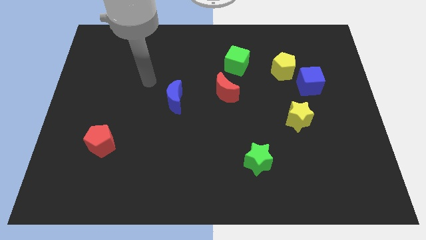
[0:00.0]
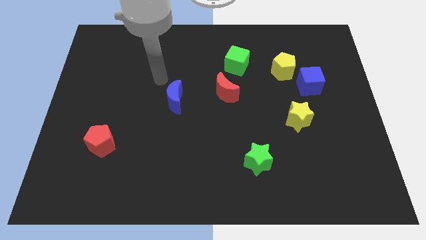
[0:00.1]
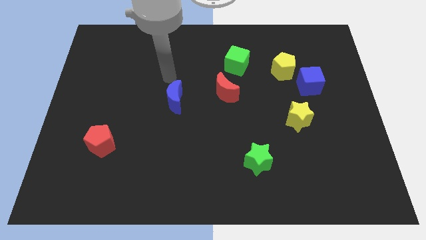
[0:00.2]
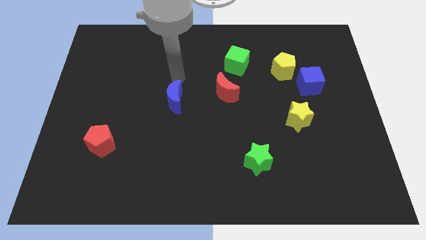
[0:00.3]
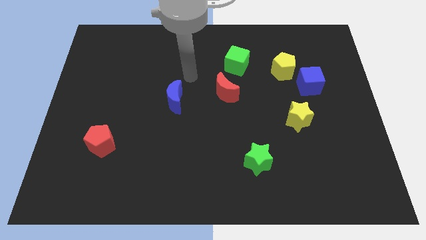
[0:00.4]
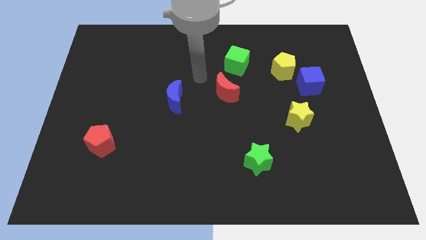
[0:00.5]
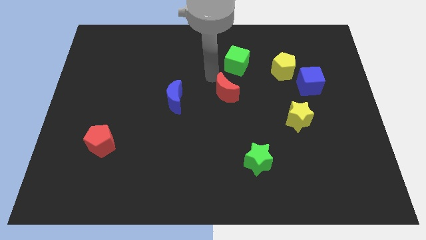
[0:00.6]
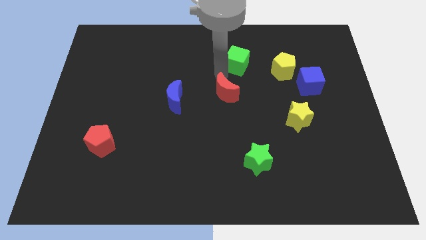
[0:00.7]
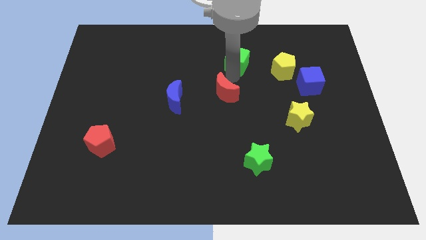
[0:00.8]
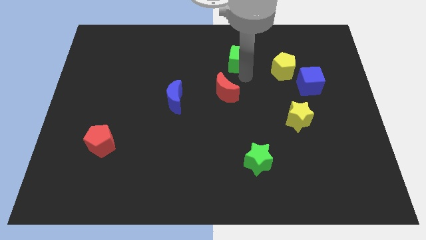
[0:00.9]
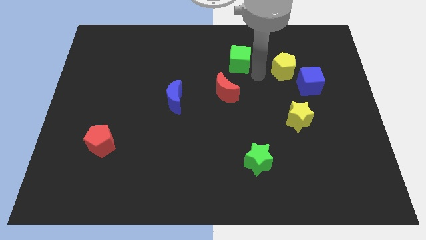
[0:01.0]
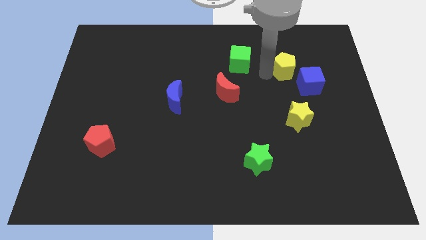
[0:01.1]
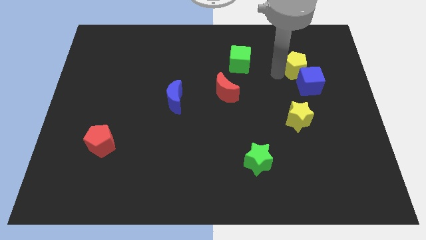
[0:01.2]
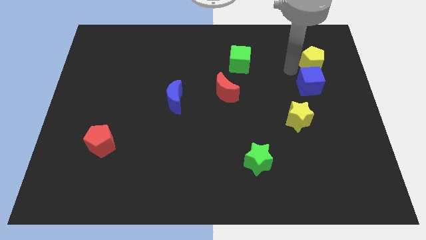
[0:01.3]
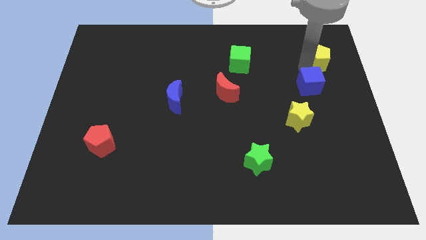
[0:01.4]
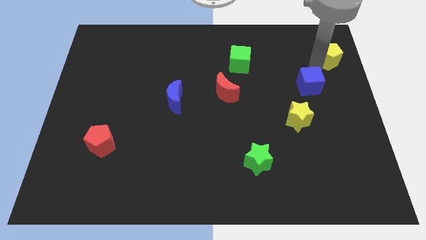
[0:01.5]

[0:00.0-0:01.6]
separate the blue cube from the yellow pentagon

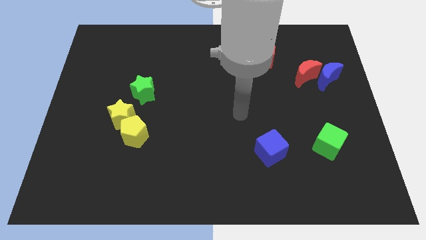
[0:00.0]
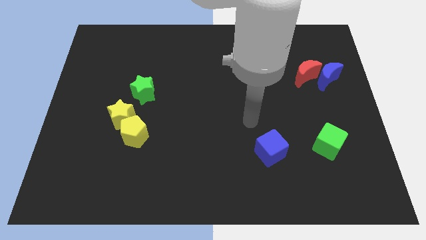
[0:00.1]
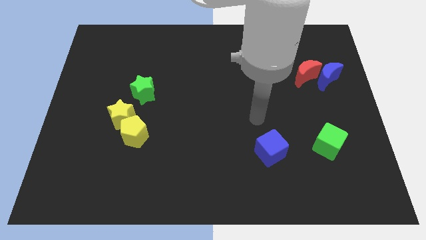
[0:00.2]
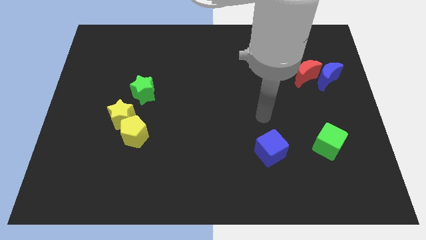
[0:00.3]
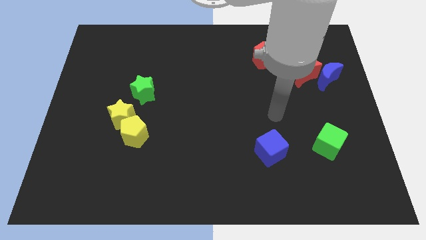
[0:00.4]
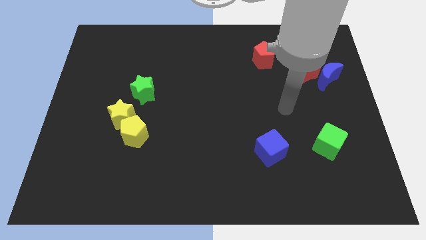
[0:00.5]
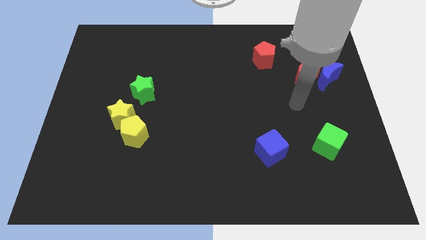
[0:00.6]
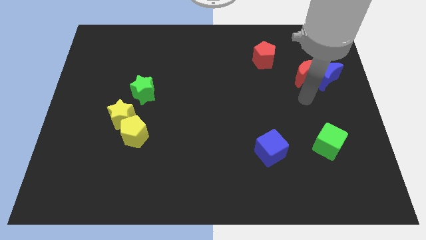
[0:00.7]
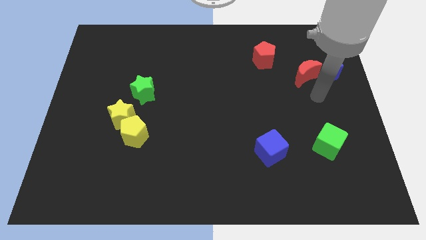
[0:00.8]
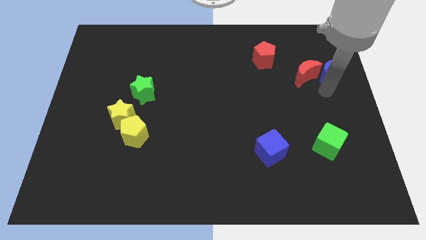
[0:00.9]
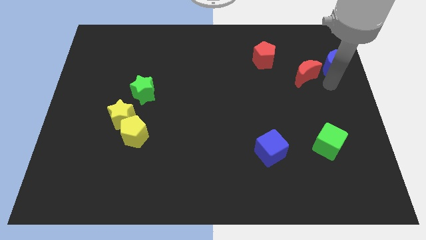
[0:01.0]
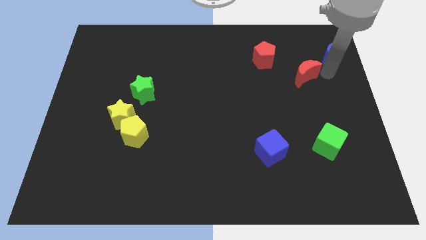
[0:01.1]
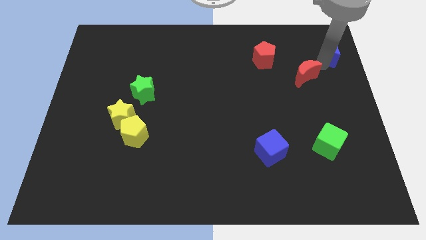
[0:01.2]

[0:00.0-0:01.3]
separate the red moon from the blue moon

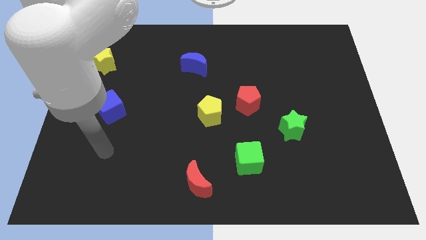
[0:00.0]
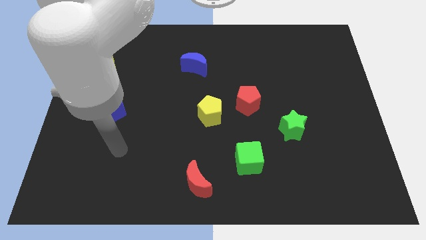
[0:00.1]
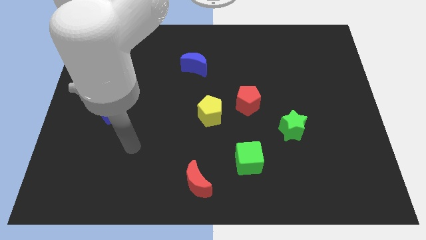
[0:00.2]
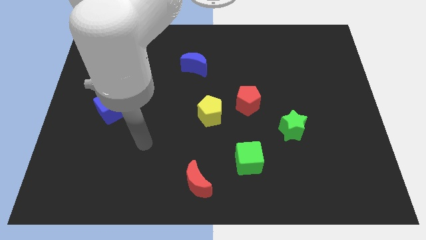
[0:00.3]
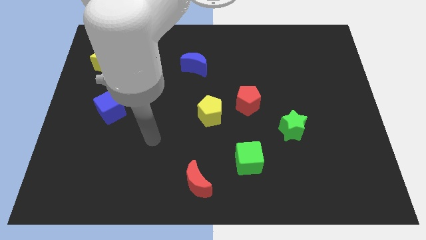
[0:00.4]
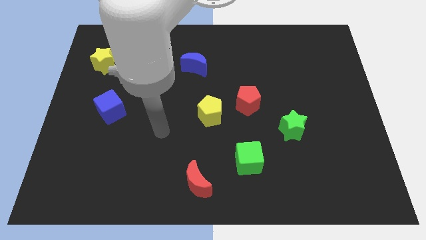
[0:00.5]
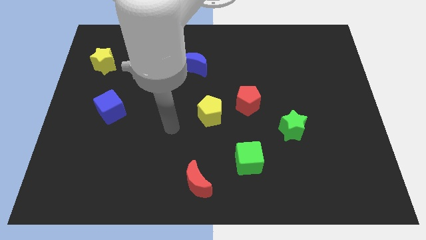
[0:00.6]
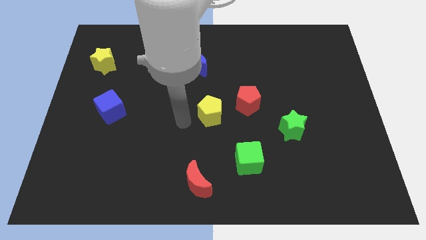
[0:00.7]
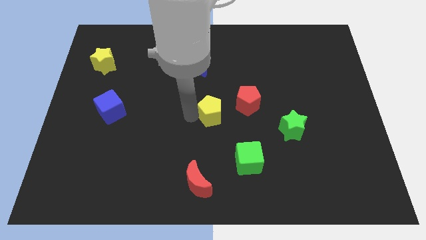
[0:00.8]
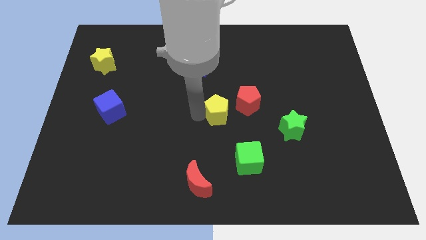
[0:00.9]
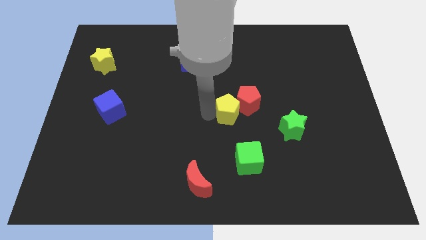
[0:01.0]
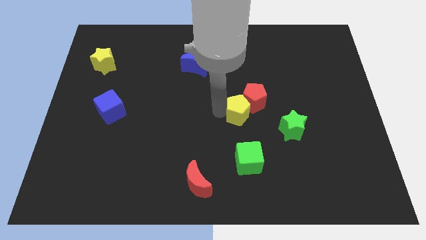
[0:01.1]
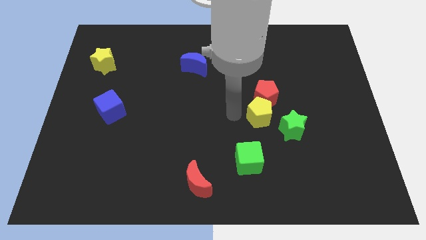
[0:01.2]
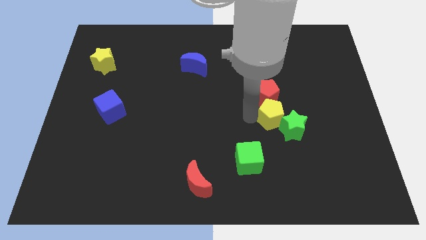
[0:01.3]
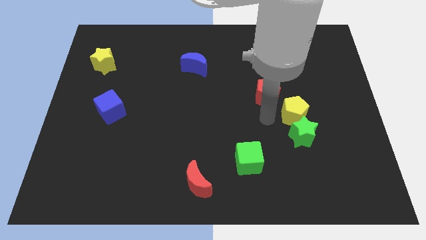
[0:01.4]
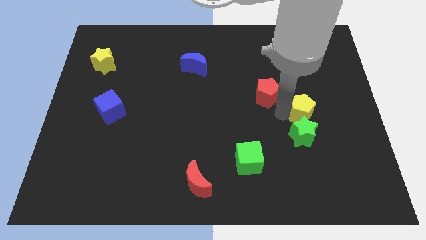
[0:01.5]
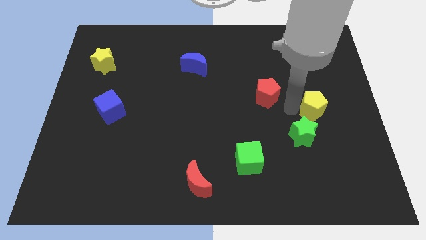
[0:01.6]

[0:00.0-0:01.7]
pull the red pentagon apart from the yellow pentagon

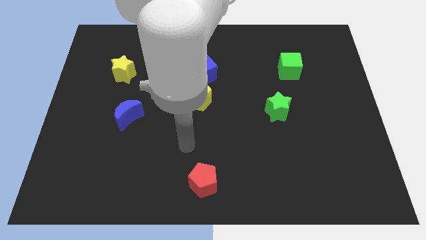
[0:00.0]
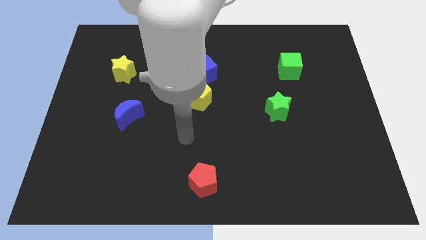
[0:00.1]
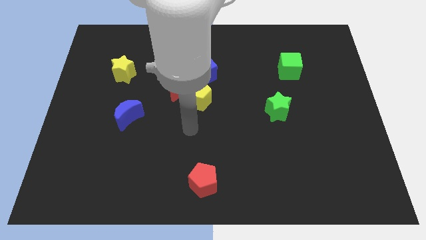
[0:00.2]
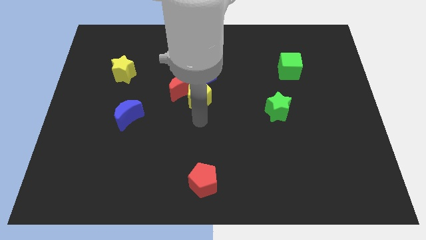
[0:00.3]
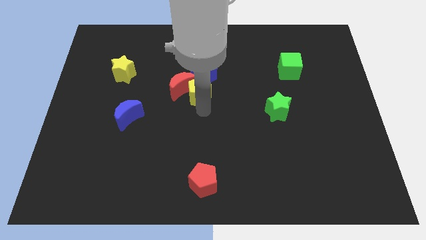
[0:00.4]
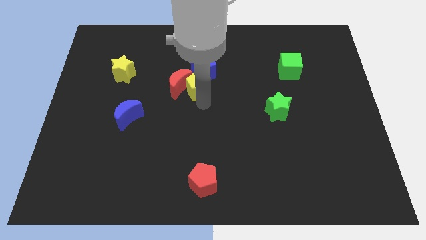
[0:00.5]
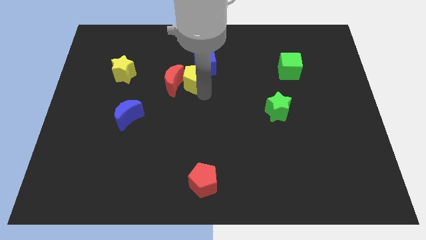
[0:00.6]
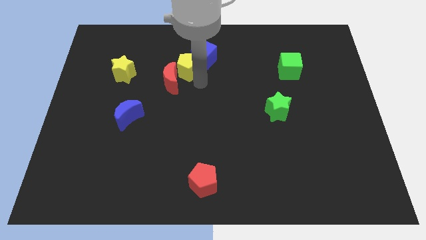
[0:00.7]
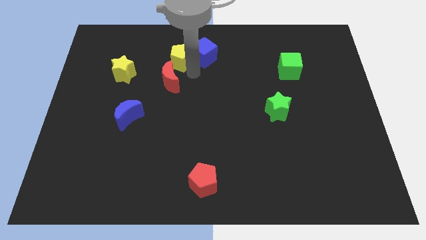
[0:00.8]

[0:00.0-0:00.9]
move the red moon away from the yellow pentagon and blue cube

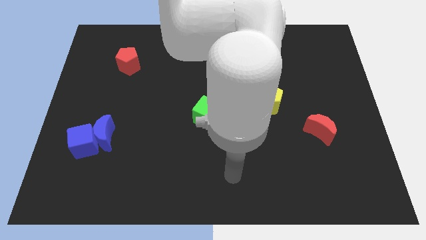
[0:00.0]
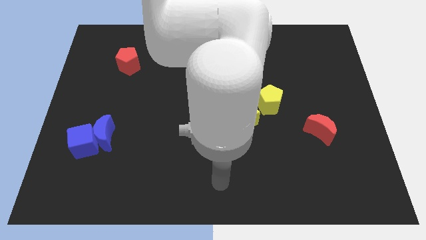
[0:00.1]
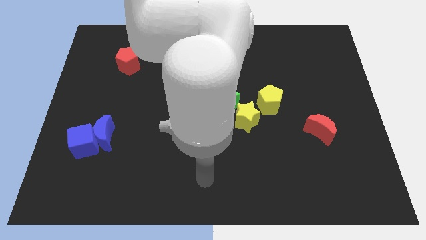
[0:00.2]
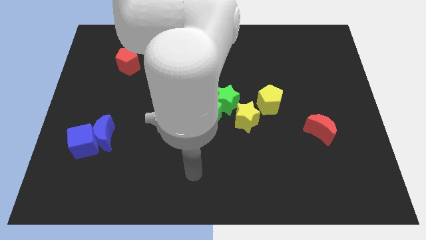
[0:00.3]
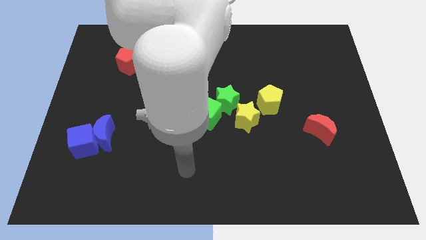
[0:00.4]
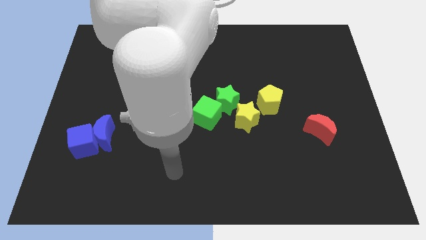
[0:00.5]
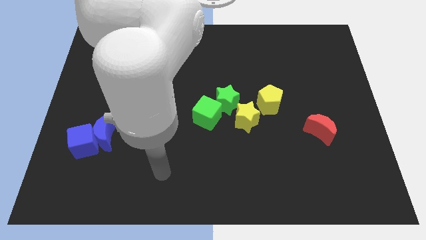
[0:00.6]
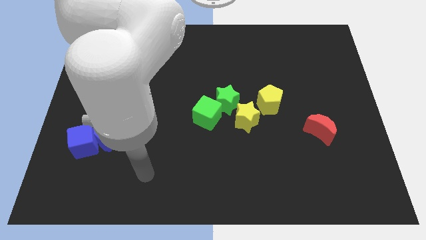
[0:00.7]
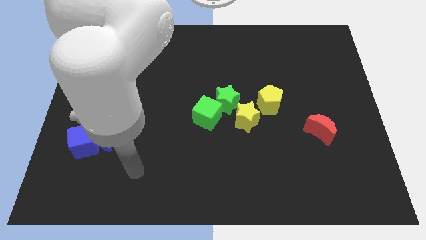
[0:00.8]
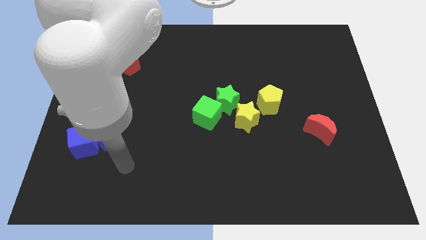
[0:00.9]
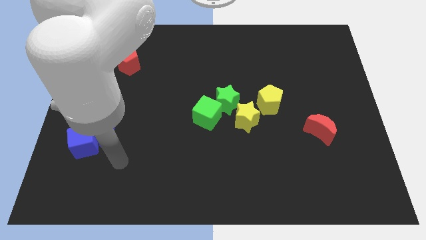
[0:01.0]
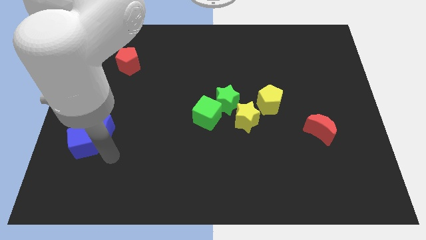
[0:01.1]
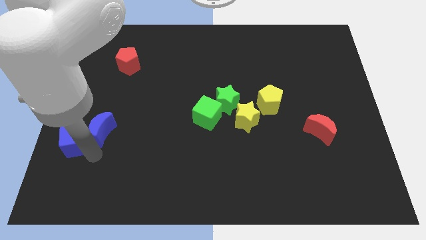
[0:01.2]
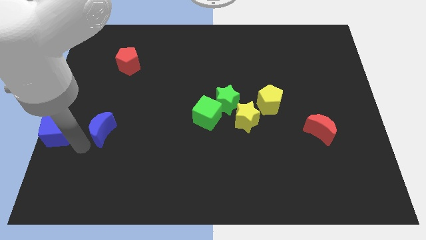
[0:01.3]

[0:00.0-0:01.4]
move the blue moon away from the blue cube

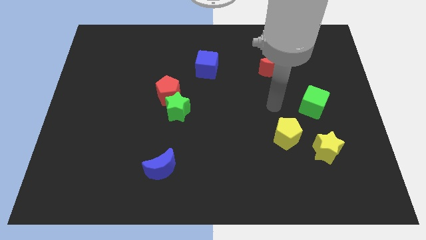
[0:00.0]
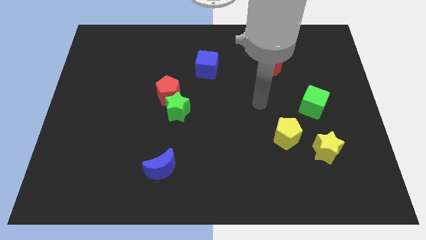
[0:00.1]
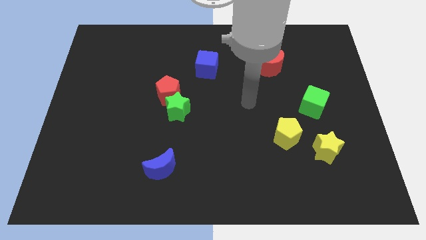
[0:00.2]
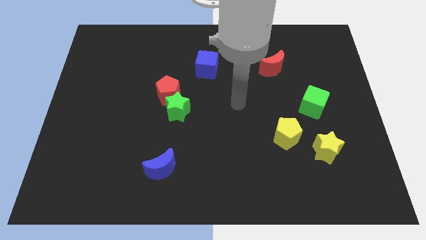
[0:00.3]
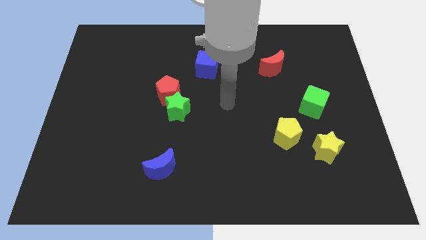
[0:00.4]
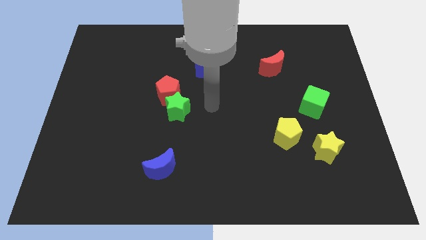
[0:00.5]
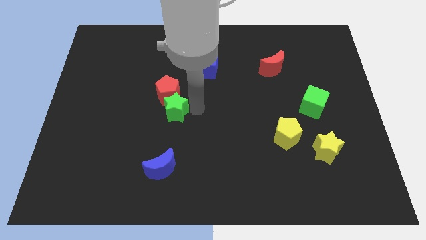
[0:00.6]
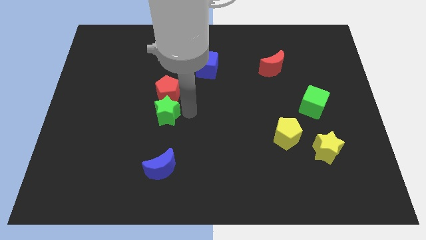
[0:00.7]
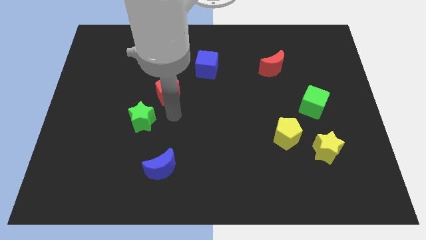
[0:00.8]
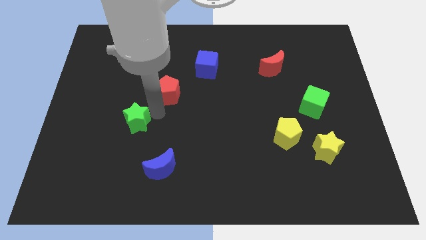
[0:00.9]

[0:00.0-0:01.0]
separate the red pentagon from the green star

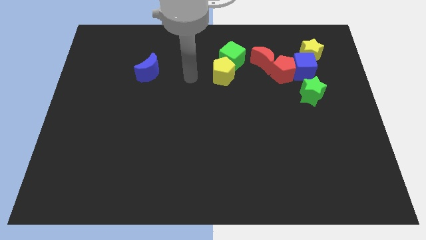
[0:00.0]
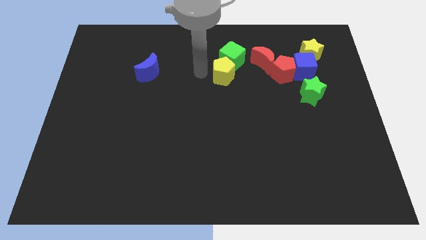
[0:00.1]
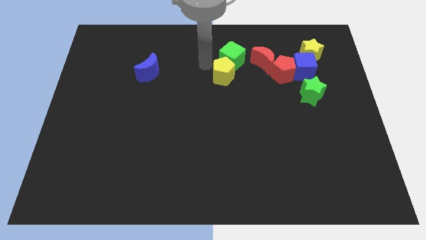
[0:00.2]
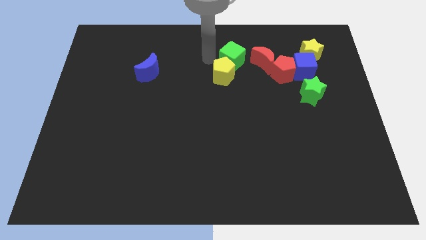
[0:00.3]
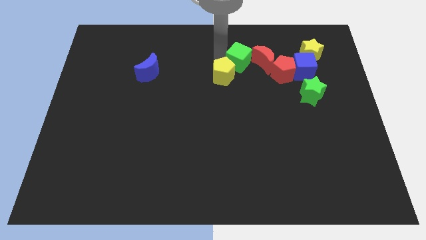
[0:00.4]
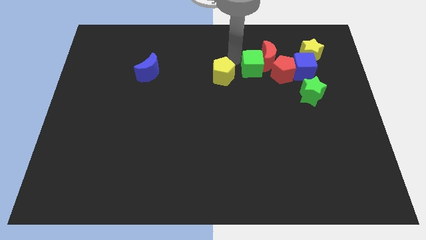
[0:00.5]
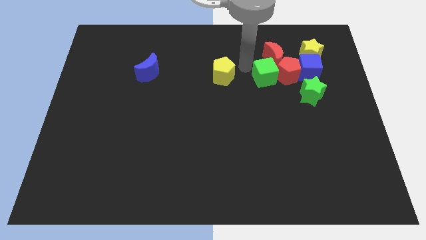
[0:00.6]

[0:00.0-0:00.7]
move the yellow pentagon away from the green cube

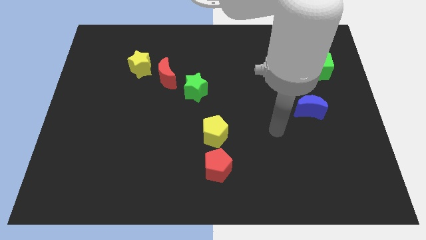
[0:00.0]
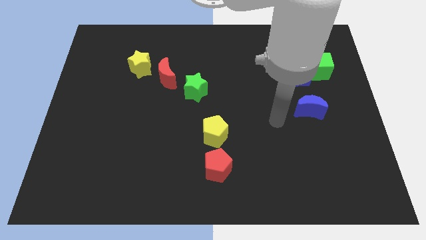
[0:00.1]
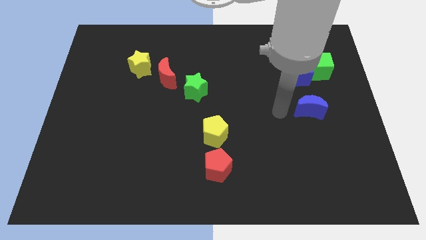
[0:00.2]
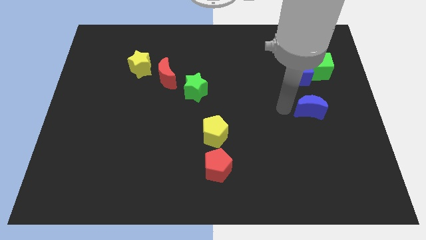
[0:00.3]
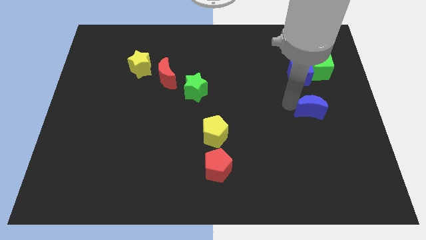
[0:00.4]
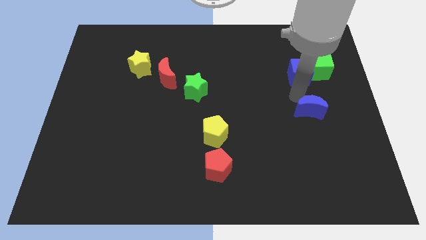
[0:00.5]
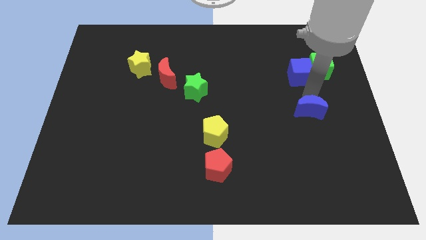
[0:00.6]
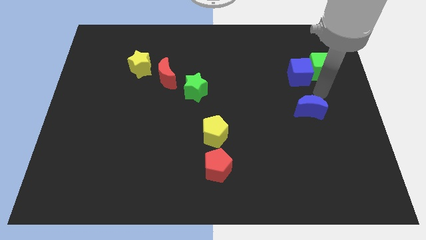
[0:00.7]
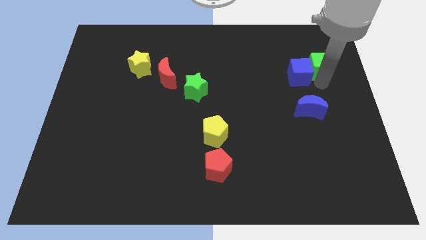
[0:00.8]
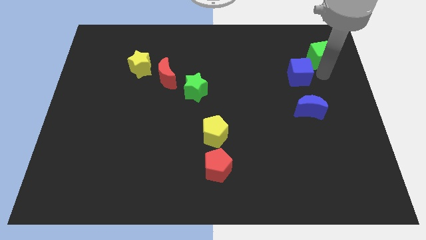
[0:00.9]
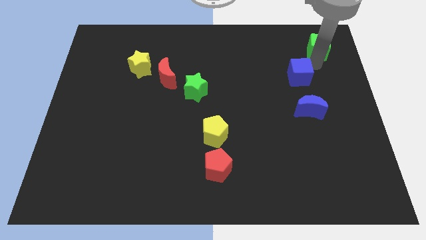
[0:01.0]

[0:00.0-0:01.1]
move the blue cube away from the green cube
